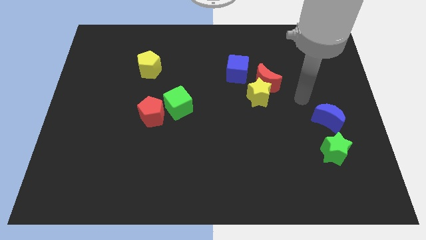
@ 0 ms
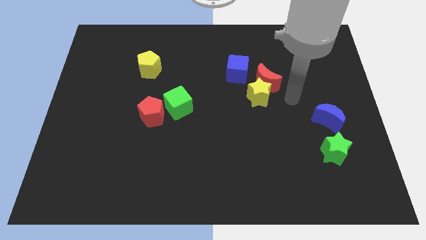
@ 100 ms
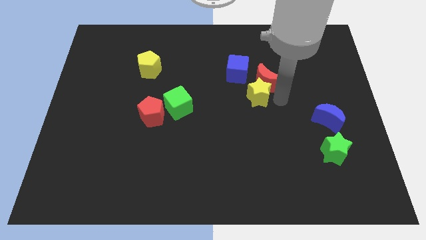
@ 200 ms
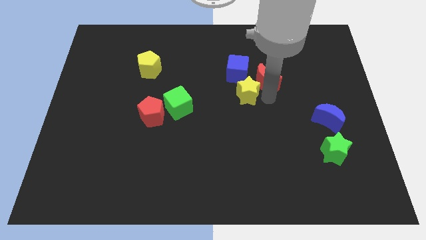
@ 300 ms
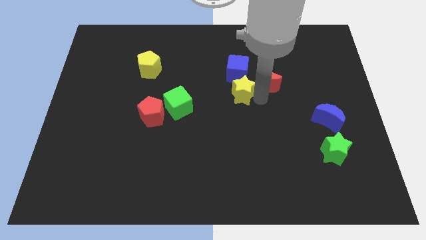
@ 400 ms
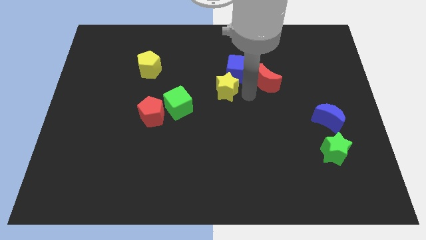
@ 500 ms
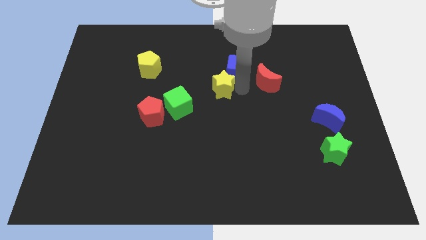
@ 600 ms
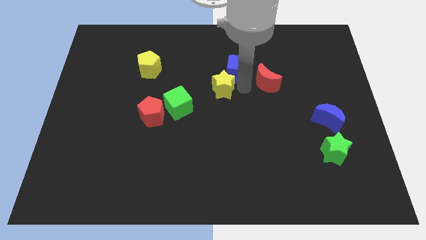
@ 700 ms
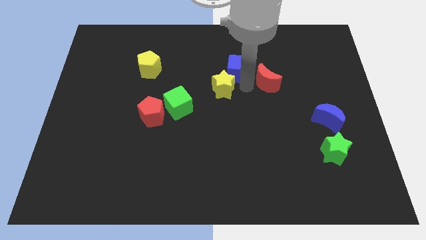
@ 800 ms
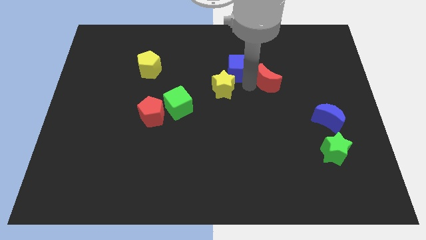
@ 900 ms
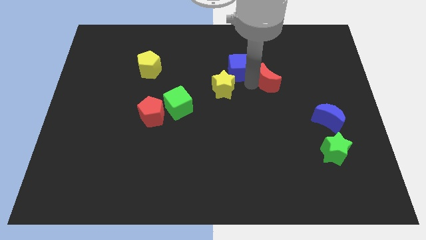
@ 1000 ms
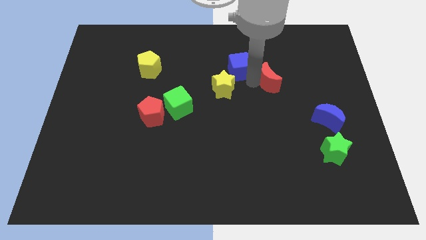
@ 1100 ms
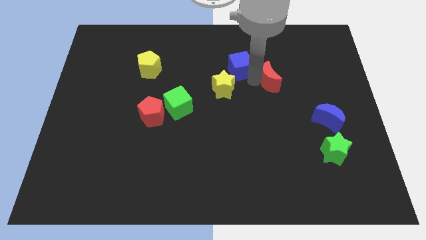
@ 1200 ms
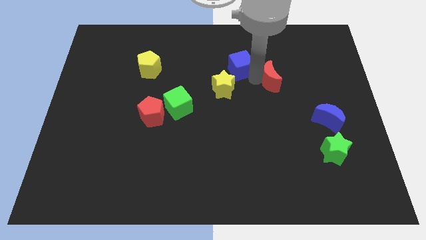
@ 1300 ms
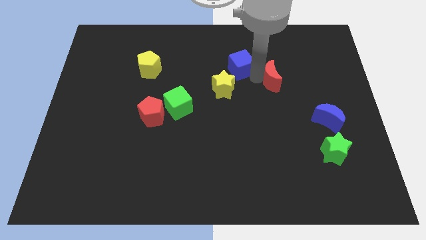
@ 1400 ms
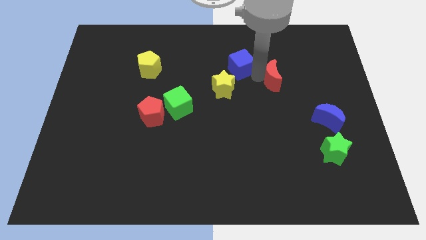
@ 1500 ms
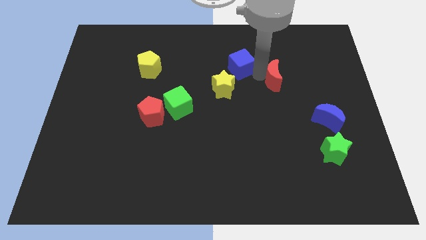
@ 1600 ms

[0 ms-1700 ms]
separate the red moon from the yellow star and blue cube

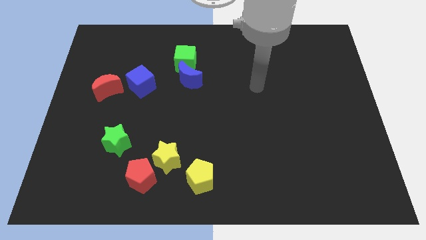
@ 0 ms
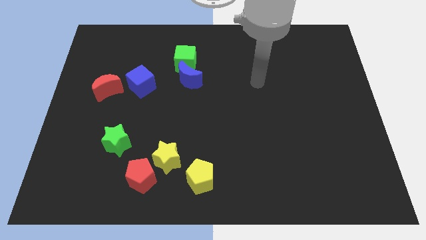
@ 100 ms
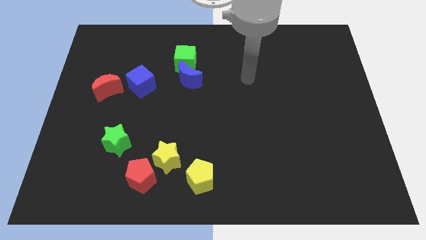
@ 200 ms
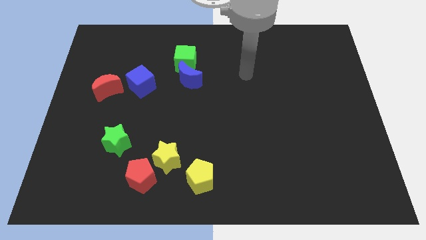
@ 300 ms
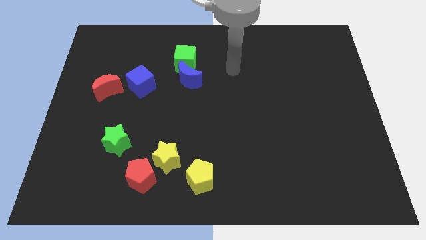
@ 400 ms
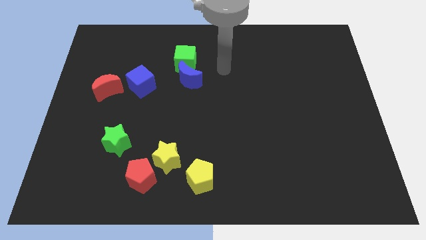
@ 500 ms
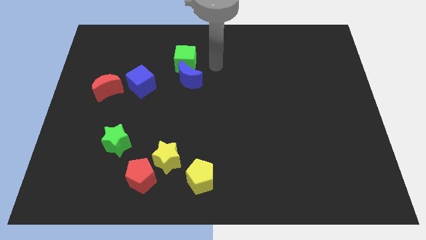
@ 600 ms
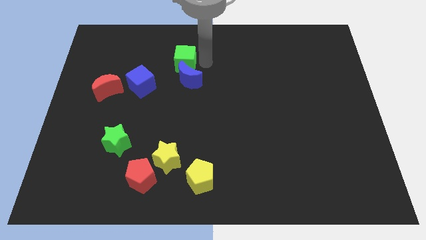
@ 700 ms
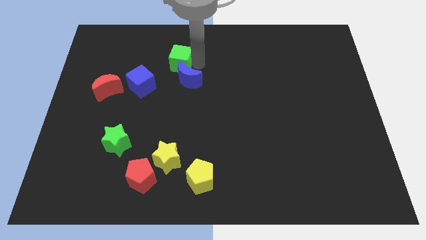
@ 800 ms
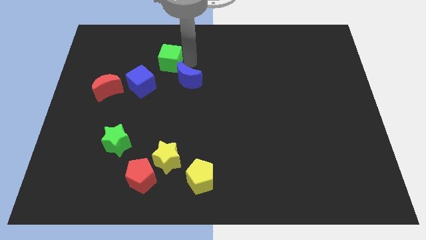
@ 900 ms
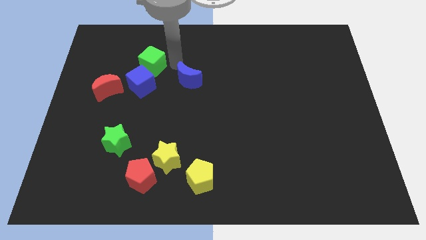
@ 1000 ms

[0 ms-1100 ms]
separate the blue moon from the green cube

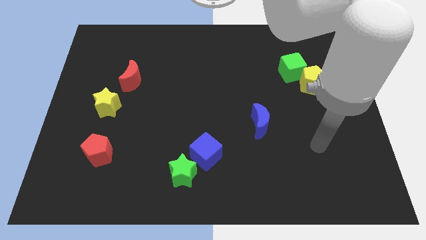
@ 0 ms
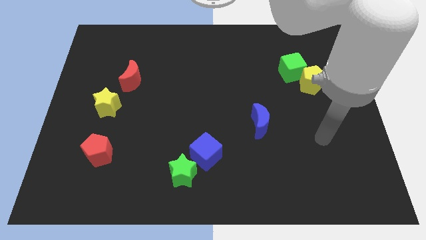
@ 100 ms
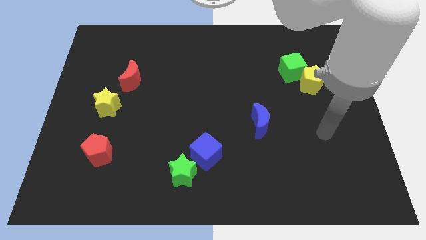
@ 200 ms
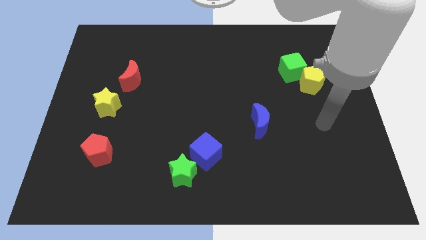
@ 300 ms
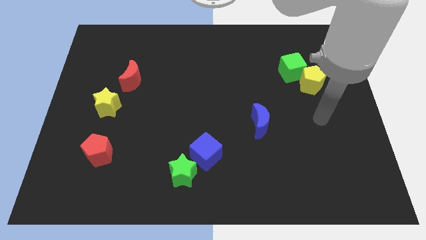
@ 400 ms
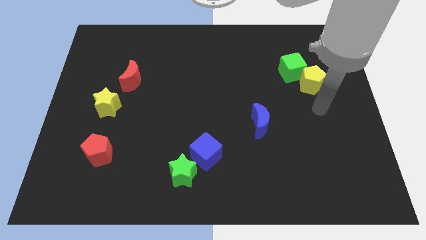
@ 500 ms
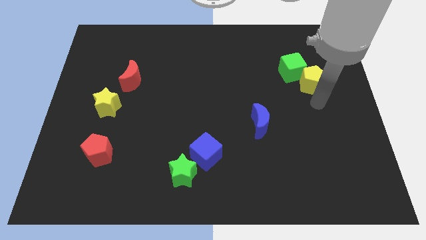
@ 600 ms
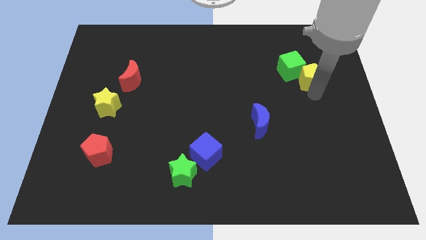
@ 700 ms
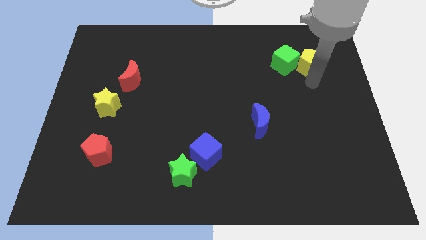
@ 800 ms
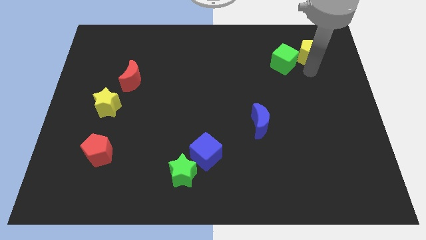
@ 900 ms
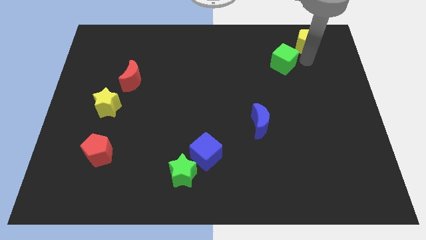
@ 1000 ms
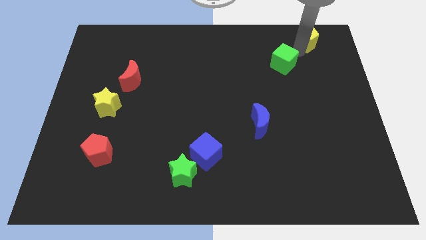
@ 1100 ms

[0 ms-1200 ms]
separate the green cube from the yellow pentagon

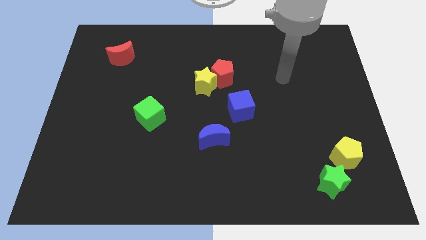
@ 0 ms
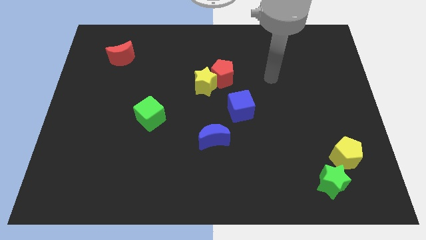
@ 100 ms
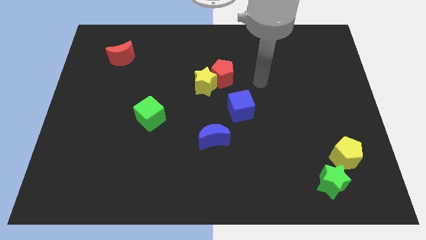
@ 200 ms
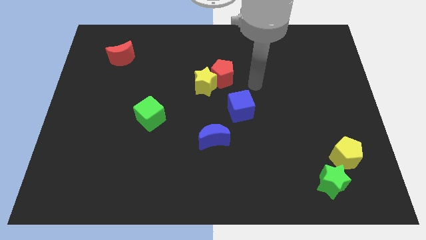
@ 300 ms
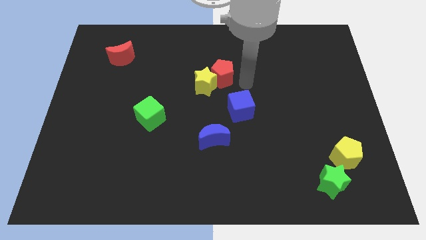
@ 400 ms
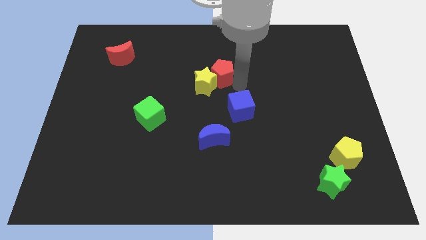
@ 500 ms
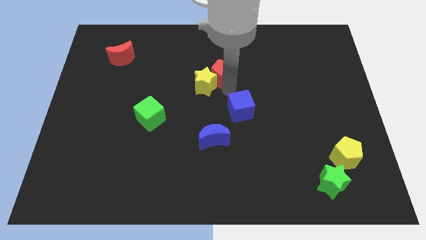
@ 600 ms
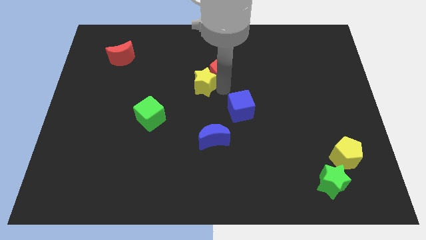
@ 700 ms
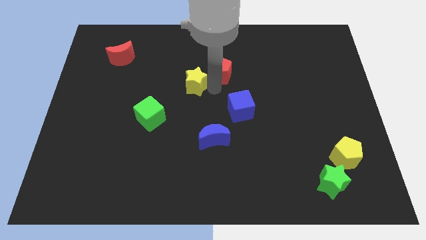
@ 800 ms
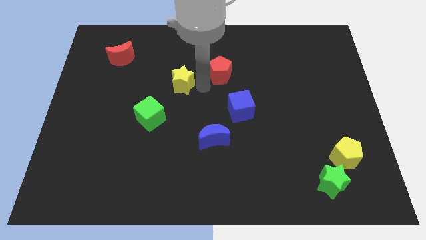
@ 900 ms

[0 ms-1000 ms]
separate the red pentagon from the yellow star

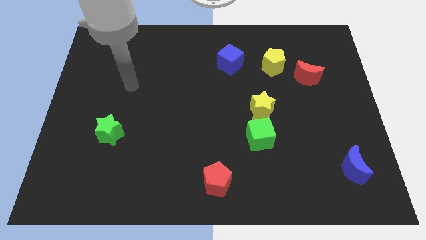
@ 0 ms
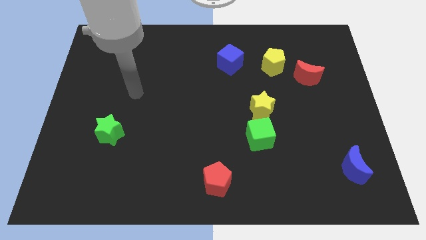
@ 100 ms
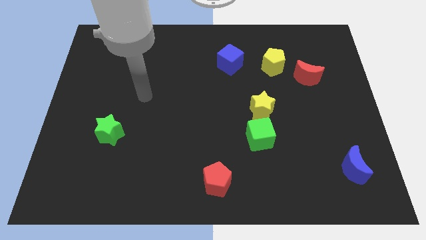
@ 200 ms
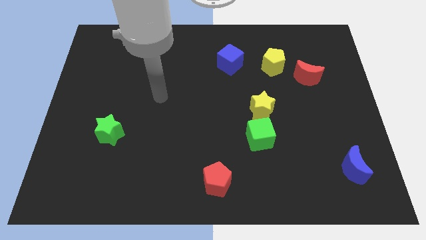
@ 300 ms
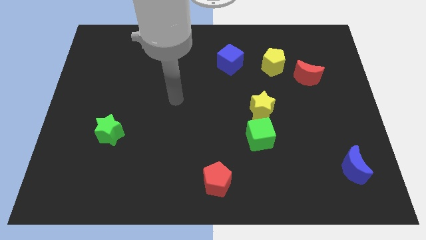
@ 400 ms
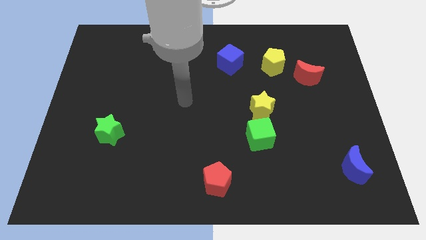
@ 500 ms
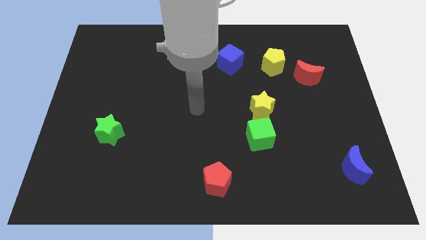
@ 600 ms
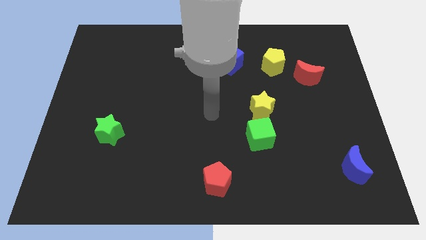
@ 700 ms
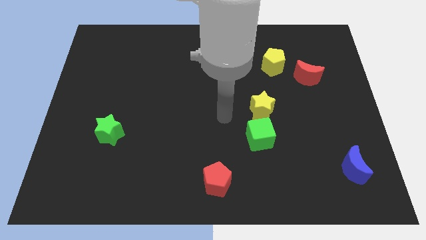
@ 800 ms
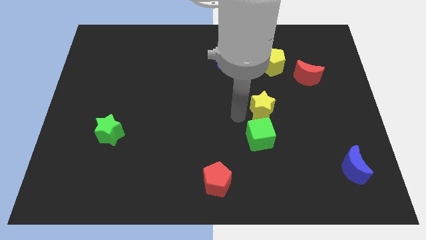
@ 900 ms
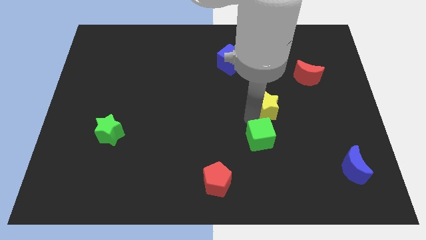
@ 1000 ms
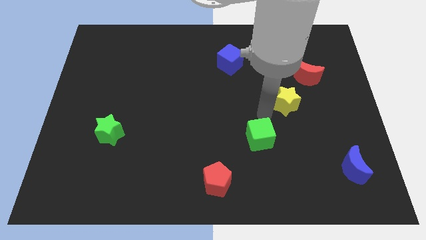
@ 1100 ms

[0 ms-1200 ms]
pull the green cube apart from the yellow star

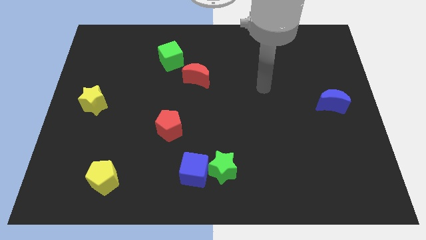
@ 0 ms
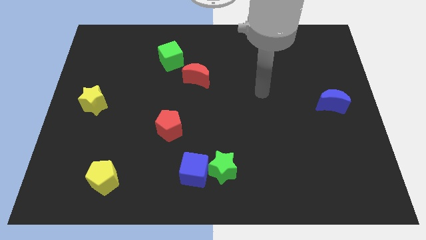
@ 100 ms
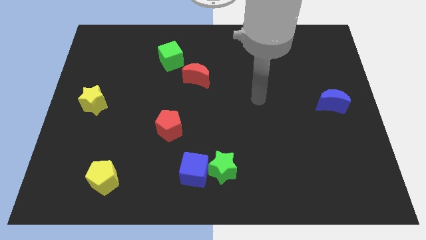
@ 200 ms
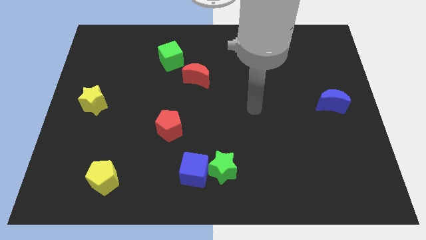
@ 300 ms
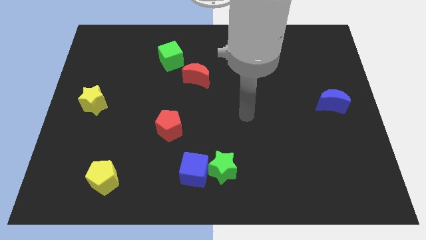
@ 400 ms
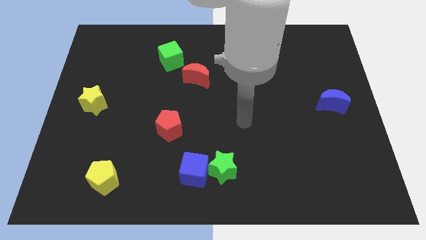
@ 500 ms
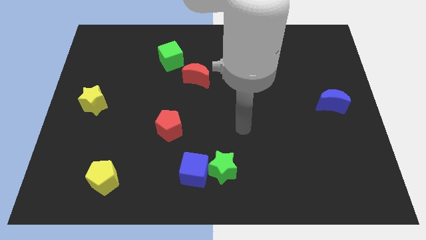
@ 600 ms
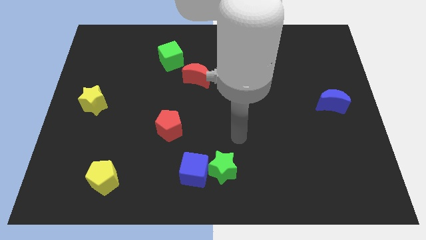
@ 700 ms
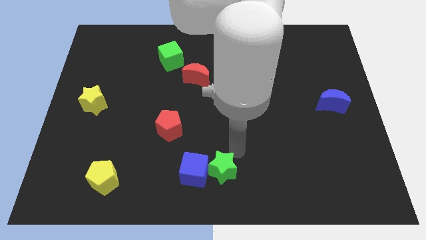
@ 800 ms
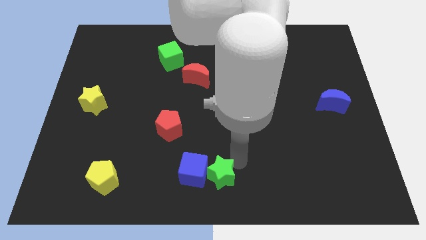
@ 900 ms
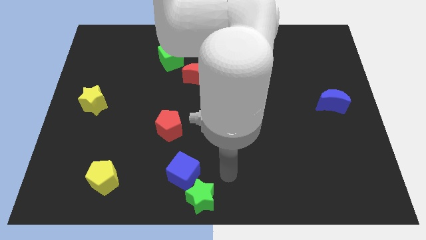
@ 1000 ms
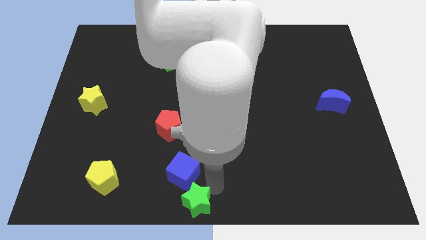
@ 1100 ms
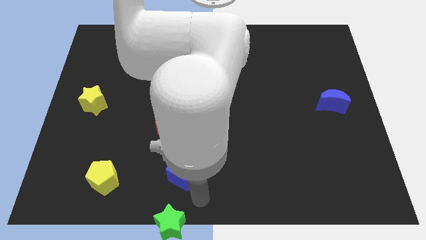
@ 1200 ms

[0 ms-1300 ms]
move the blue cube away from the green star

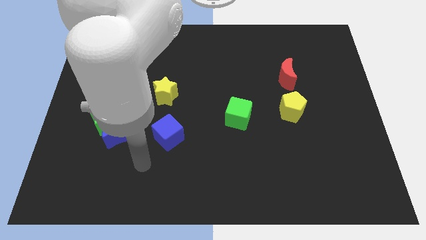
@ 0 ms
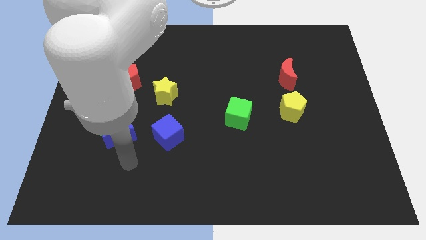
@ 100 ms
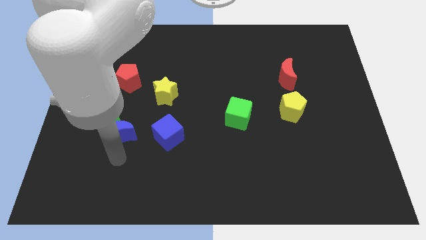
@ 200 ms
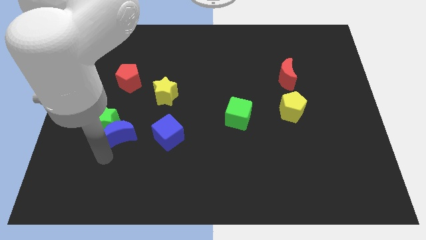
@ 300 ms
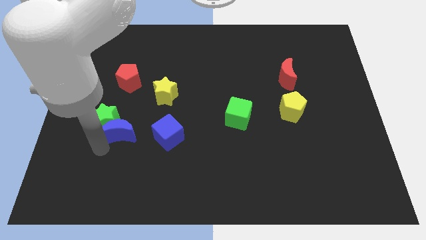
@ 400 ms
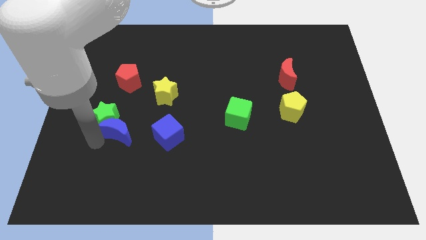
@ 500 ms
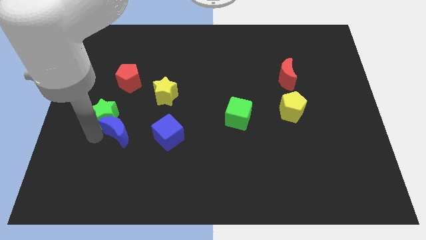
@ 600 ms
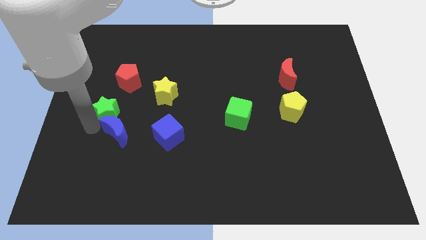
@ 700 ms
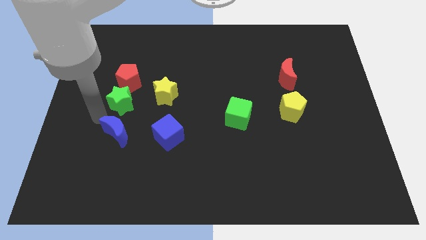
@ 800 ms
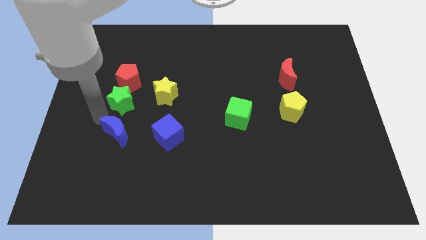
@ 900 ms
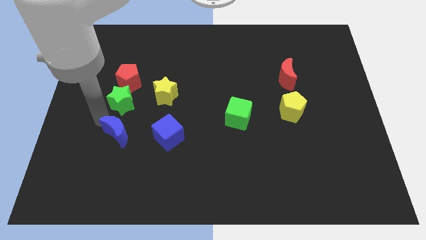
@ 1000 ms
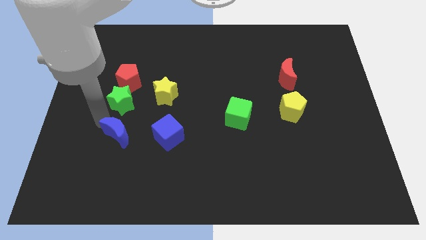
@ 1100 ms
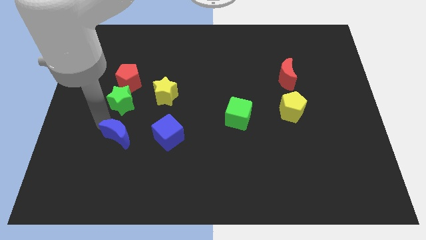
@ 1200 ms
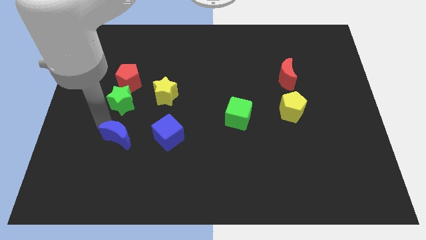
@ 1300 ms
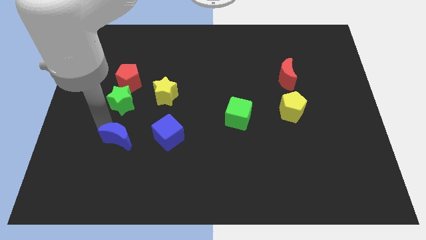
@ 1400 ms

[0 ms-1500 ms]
pull the blue moon apart from the green star

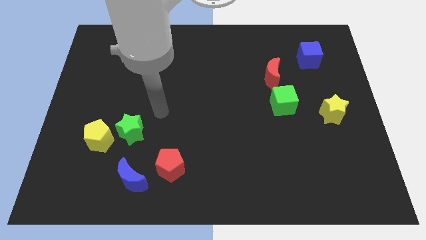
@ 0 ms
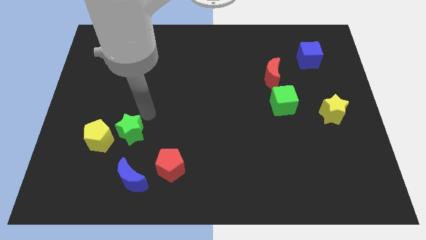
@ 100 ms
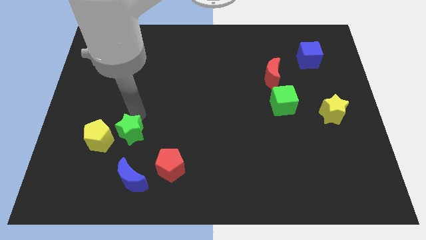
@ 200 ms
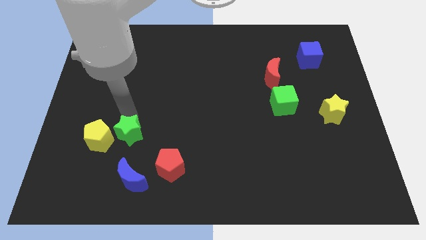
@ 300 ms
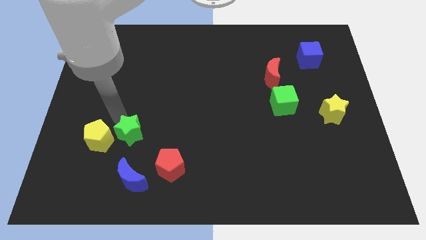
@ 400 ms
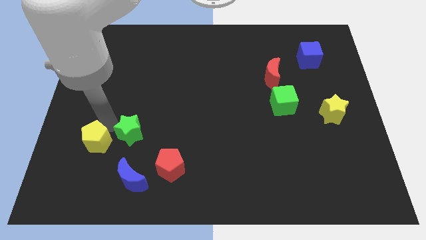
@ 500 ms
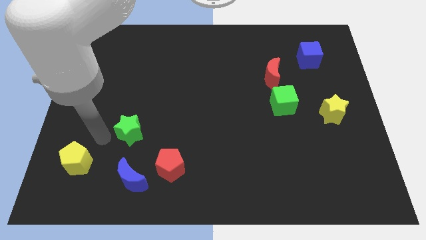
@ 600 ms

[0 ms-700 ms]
separate the green star from the yellow pentagon
